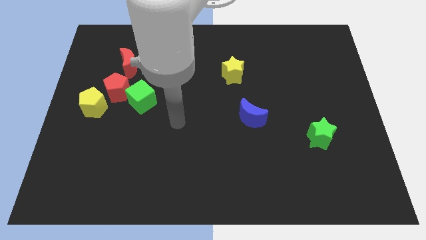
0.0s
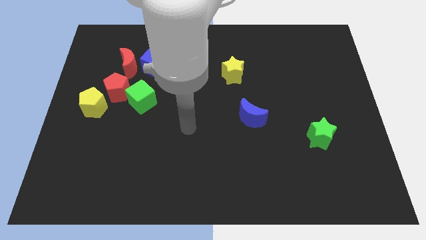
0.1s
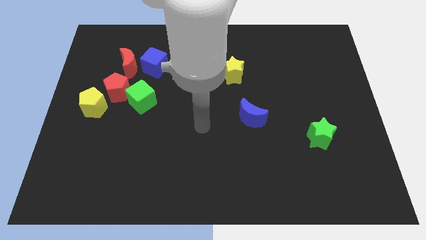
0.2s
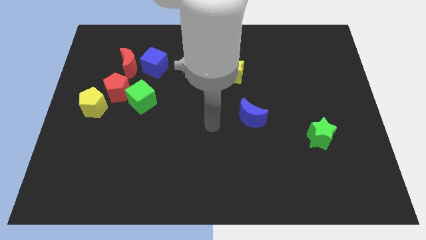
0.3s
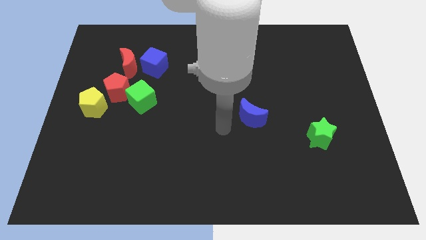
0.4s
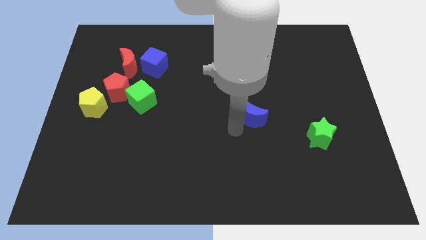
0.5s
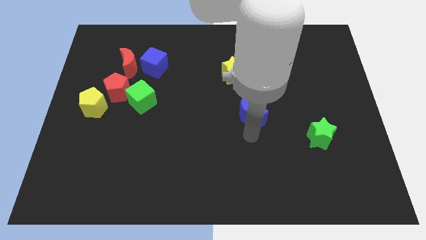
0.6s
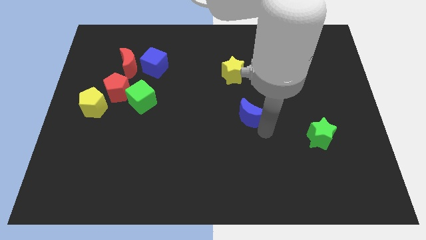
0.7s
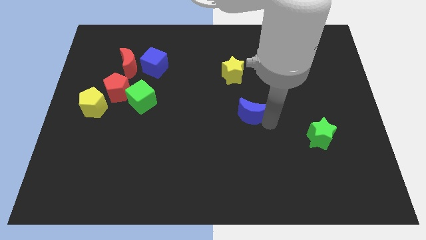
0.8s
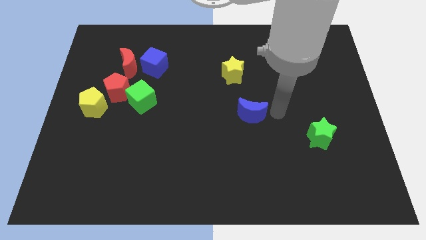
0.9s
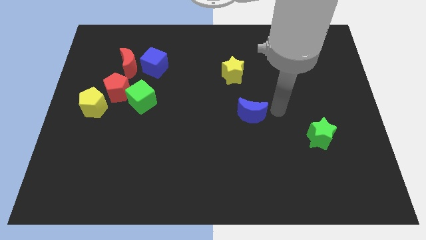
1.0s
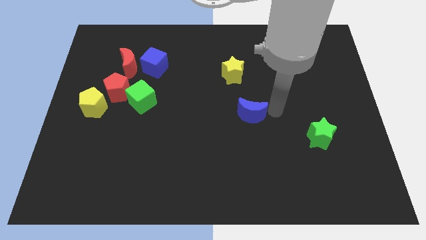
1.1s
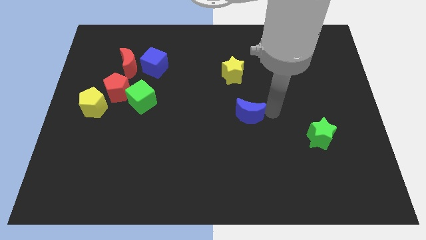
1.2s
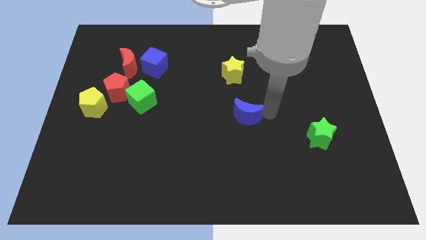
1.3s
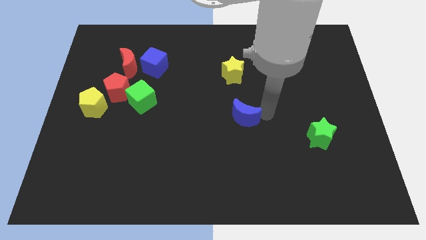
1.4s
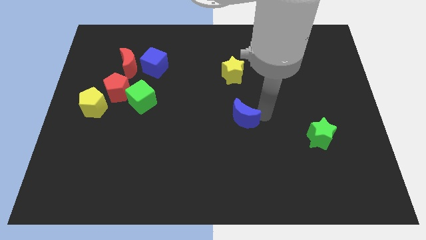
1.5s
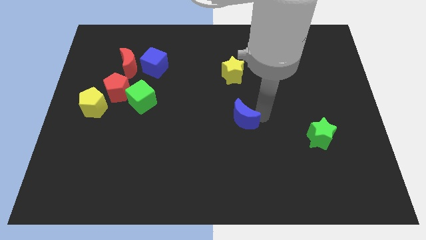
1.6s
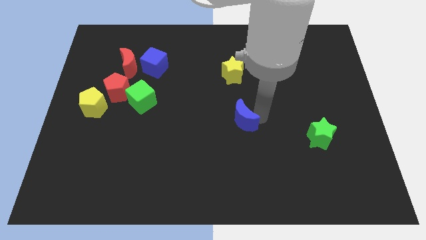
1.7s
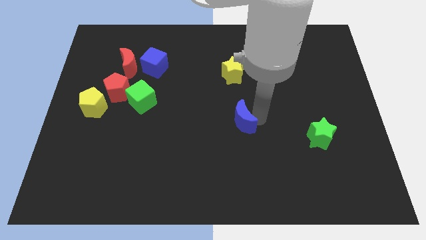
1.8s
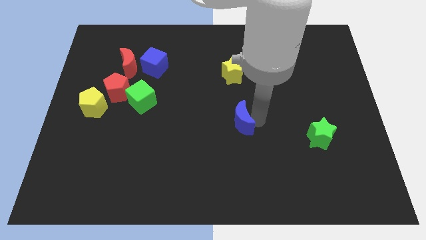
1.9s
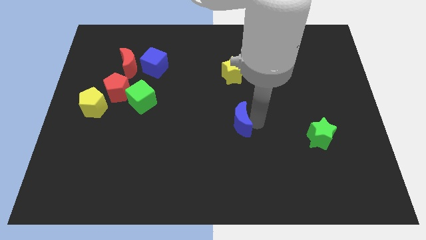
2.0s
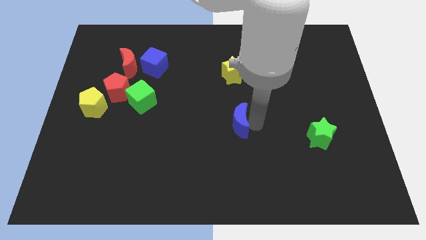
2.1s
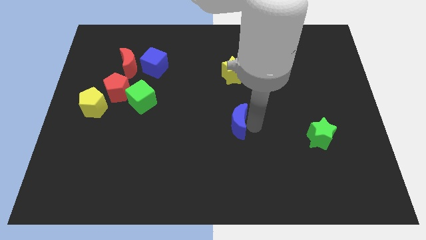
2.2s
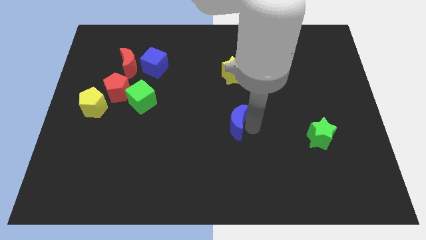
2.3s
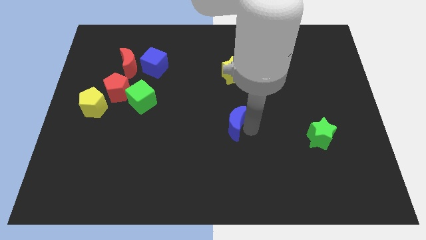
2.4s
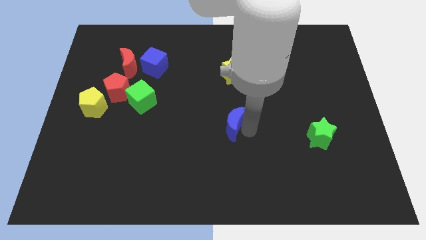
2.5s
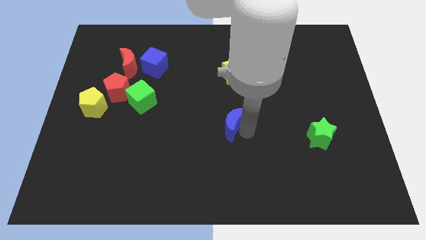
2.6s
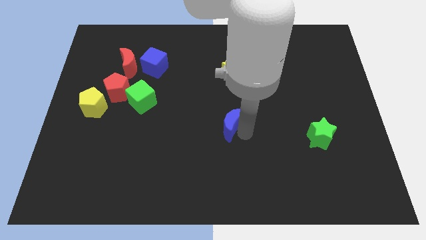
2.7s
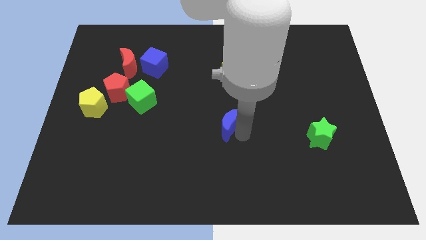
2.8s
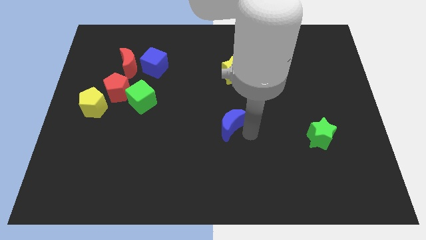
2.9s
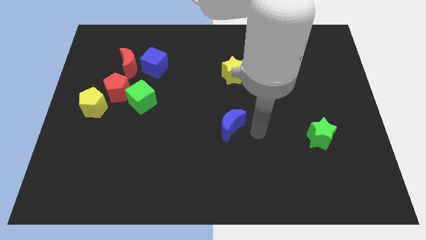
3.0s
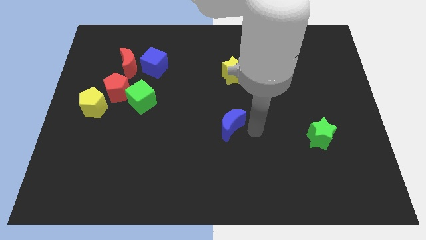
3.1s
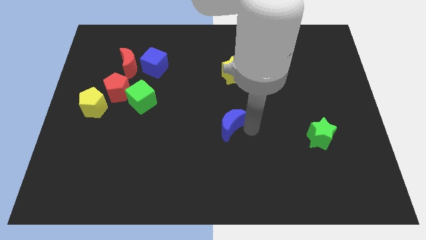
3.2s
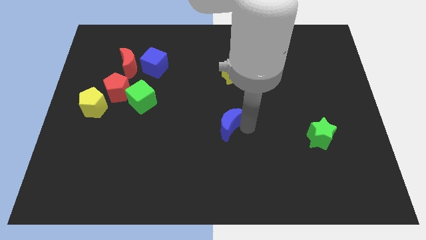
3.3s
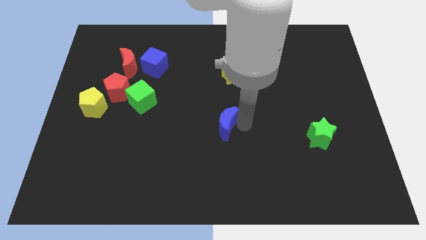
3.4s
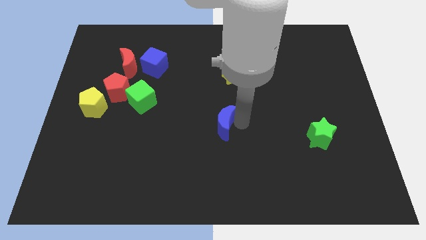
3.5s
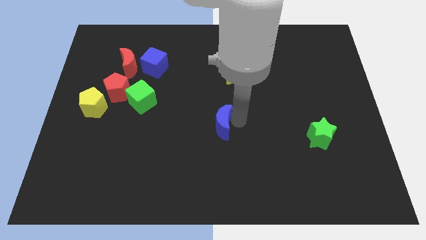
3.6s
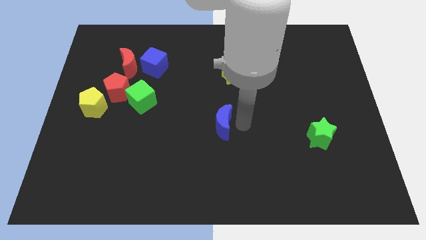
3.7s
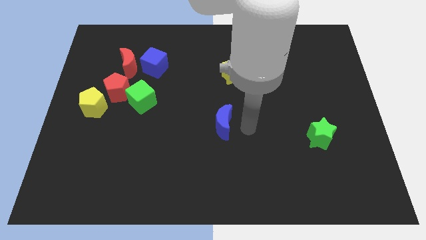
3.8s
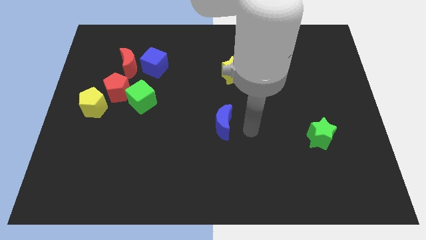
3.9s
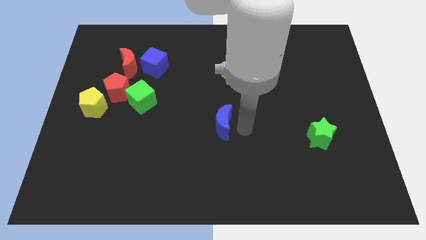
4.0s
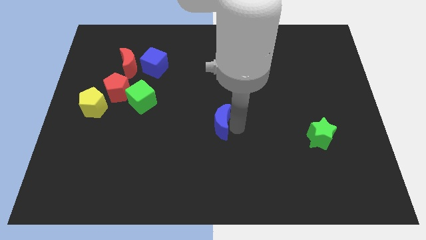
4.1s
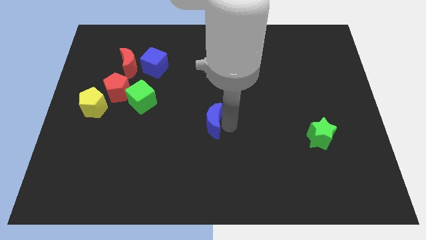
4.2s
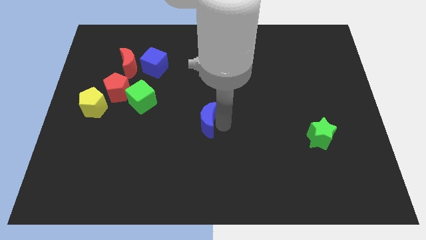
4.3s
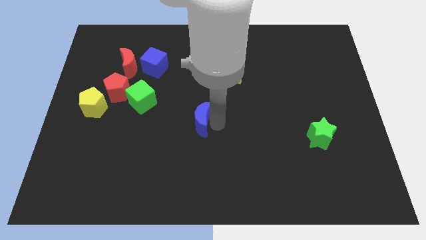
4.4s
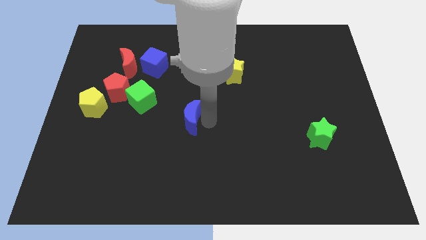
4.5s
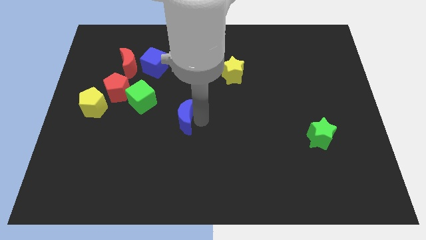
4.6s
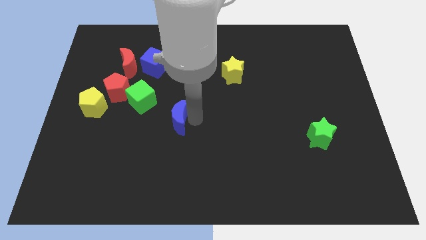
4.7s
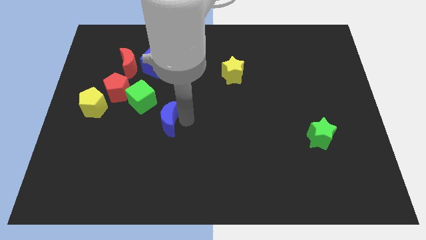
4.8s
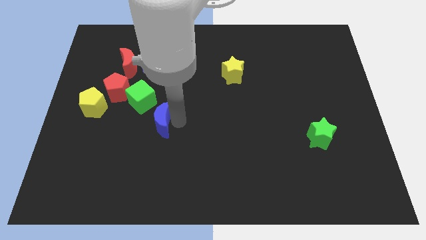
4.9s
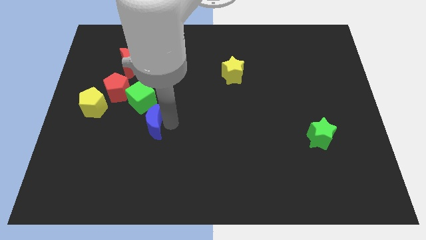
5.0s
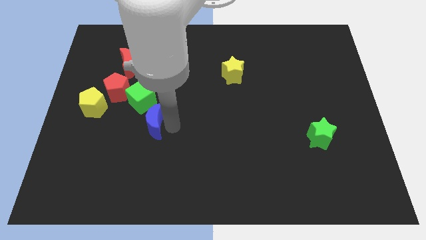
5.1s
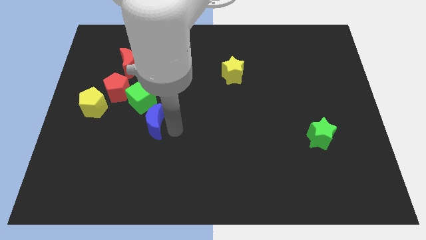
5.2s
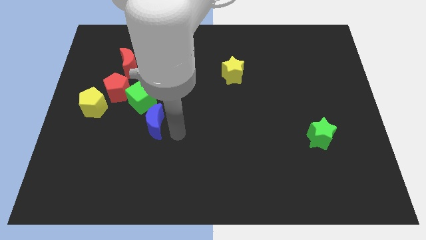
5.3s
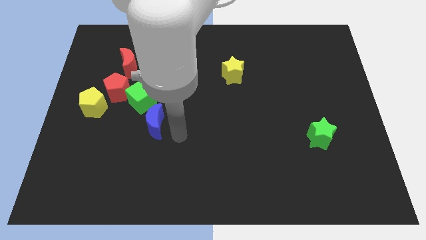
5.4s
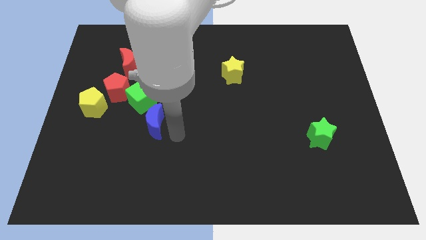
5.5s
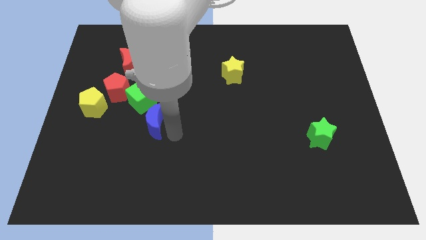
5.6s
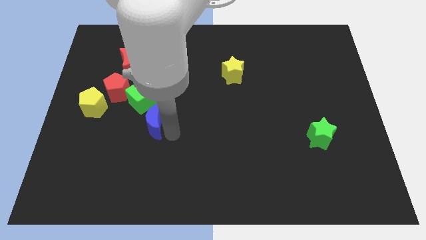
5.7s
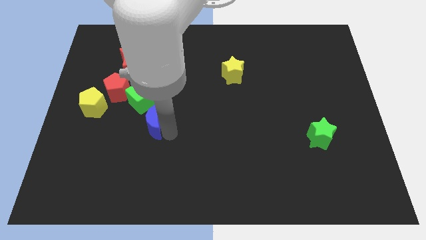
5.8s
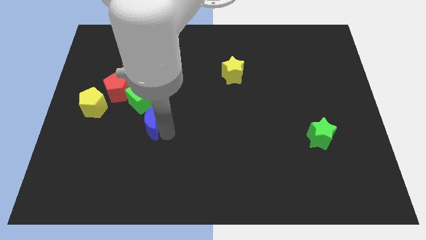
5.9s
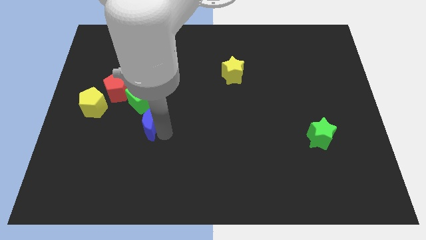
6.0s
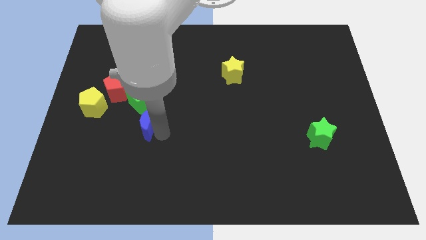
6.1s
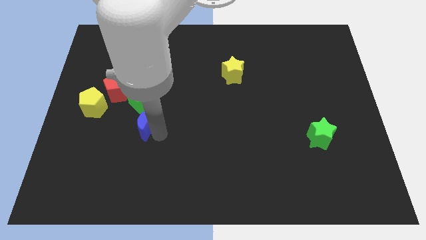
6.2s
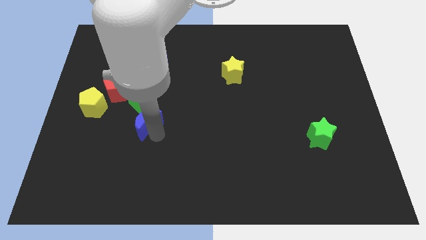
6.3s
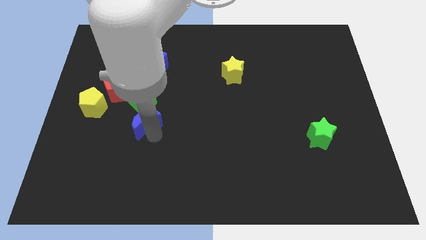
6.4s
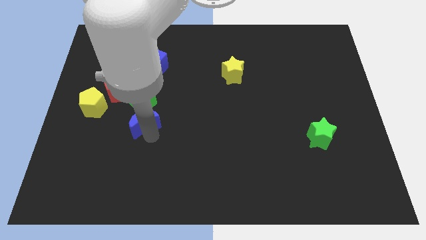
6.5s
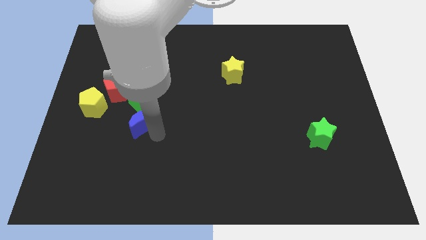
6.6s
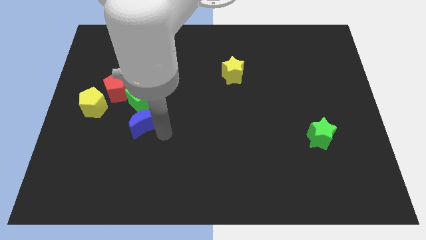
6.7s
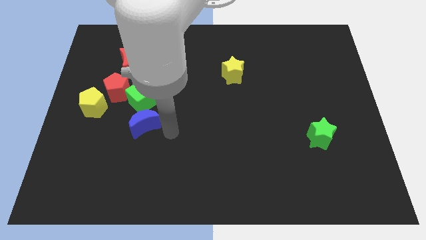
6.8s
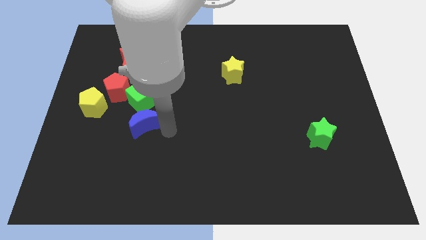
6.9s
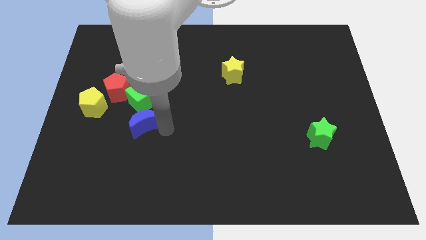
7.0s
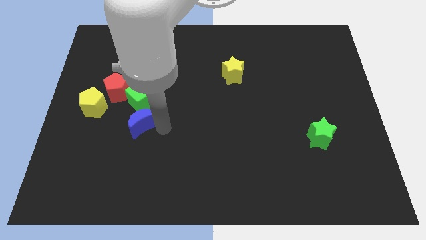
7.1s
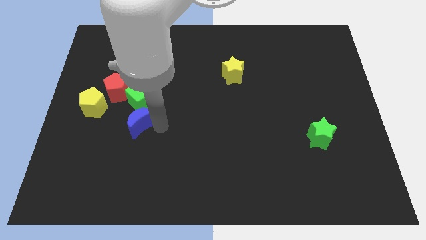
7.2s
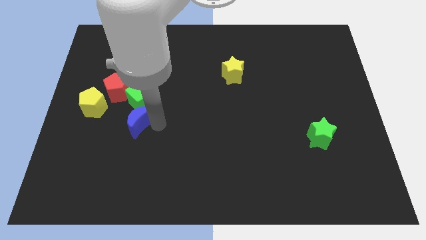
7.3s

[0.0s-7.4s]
push the blue moon diagonally down and to the left of the green cube
